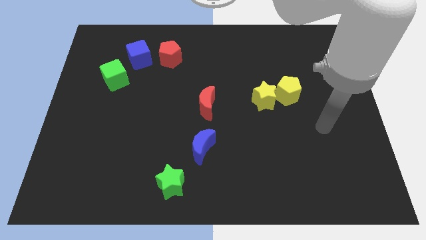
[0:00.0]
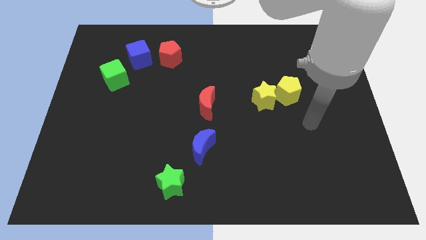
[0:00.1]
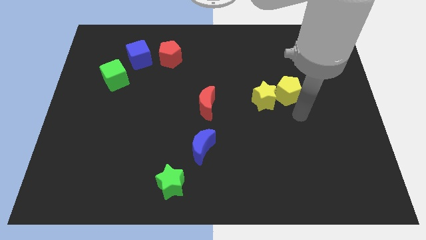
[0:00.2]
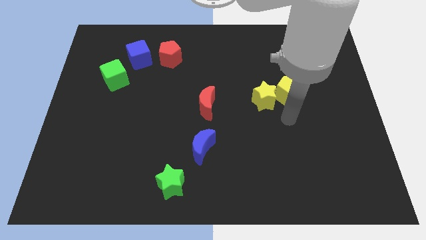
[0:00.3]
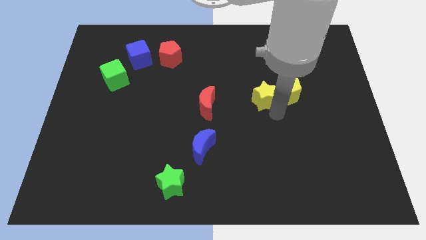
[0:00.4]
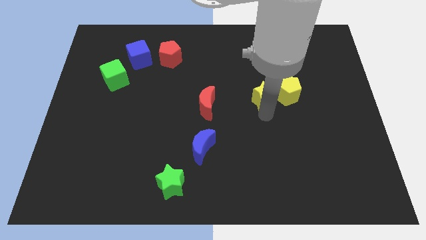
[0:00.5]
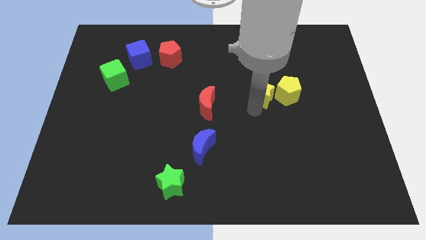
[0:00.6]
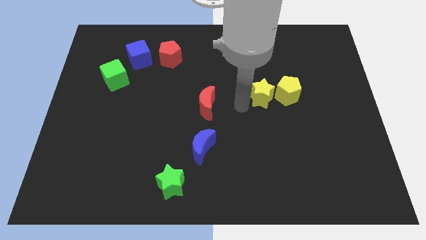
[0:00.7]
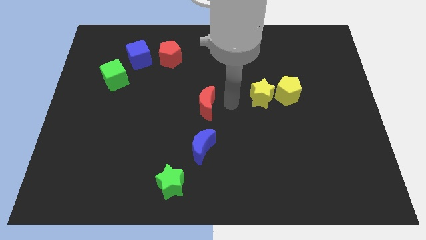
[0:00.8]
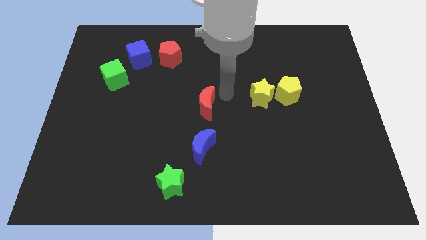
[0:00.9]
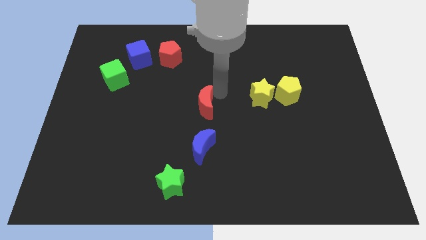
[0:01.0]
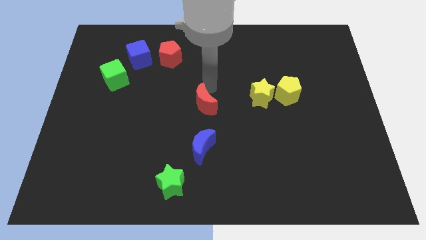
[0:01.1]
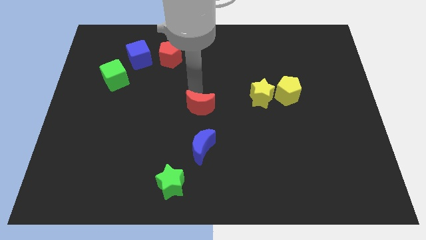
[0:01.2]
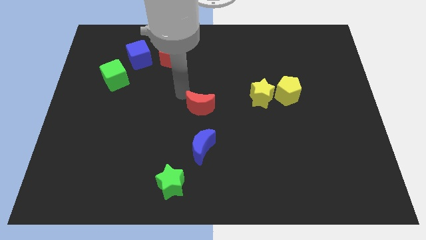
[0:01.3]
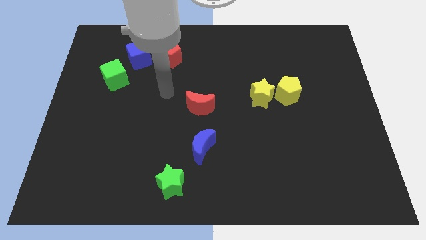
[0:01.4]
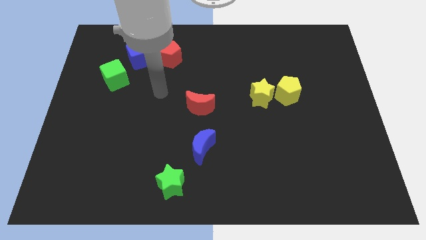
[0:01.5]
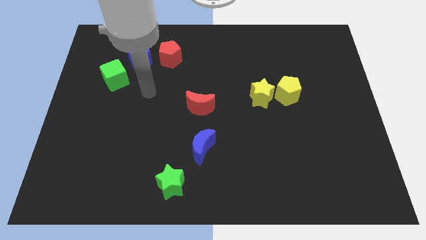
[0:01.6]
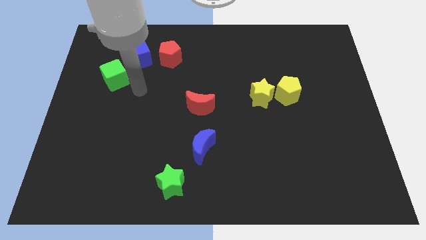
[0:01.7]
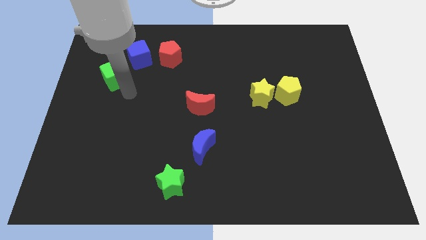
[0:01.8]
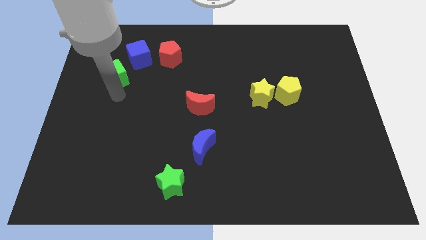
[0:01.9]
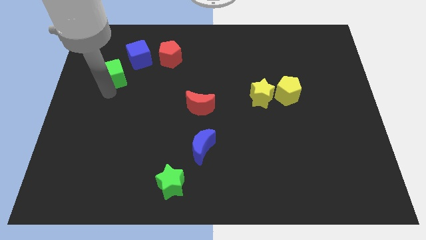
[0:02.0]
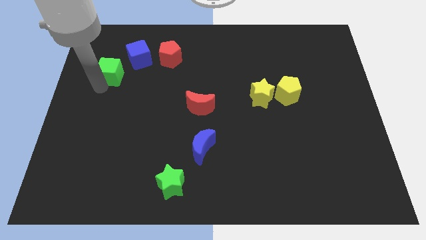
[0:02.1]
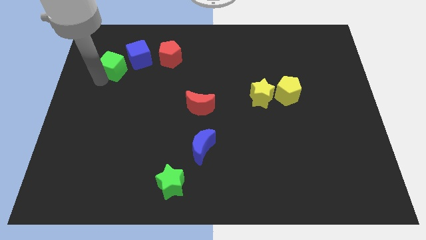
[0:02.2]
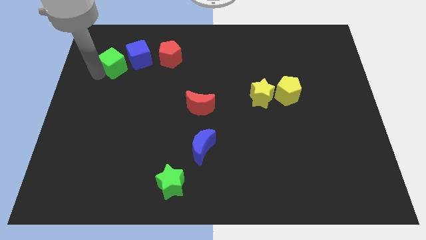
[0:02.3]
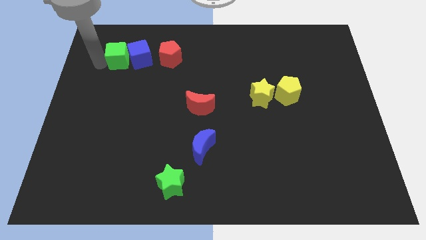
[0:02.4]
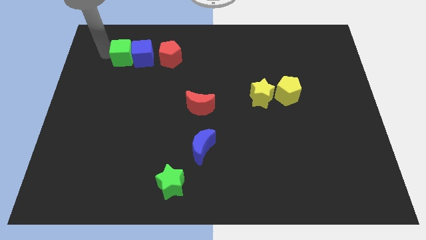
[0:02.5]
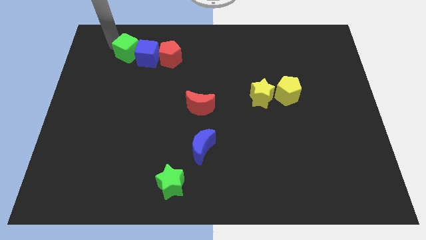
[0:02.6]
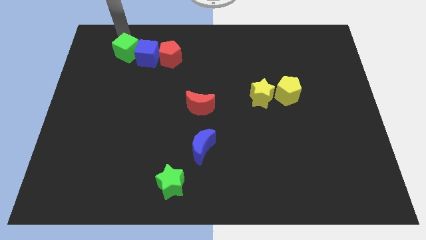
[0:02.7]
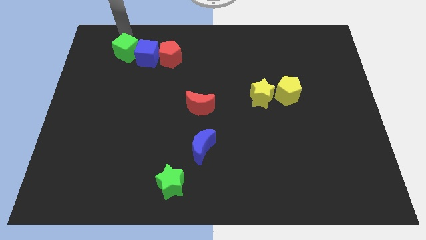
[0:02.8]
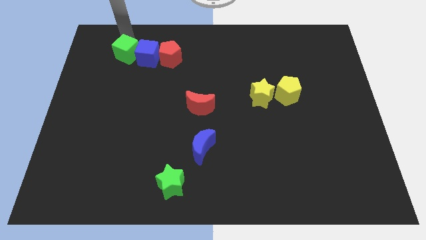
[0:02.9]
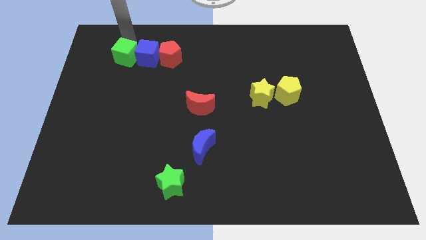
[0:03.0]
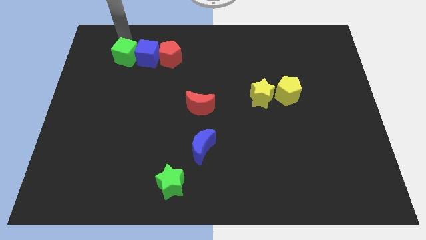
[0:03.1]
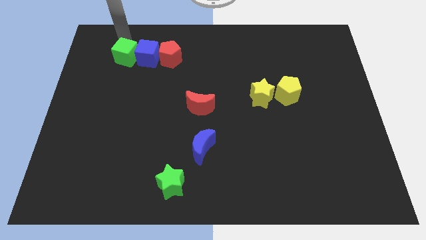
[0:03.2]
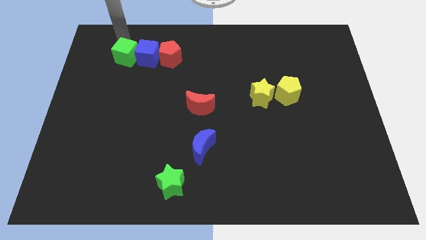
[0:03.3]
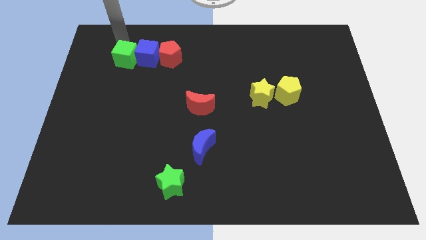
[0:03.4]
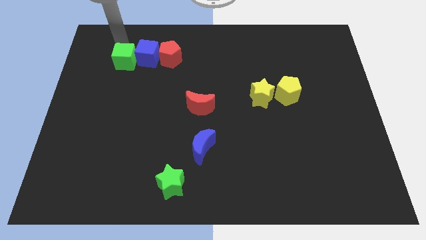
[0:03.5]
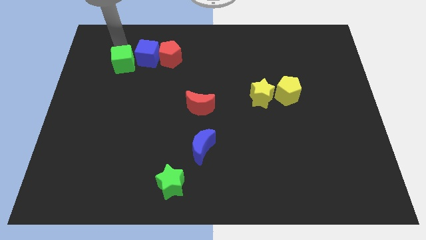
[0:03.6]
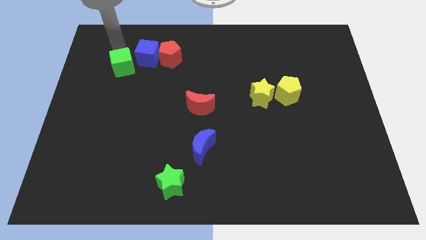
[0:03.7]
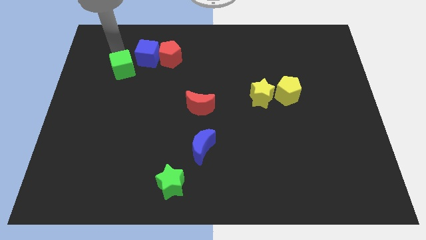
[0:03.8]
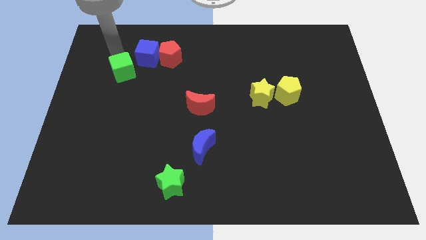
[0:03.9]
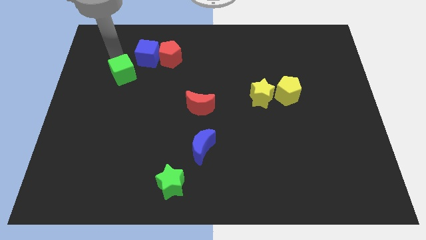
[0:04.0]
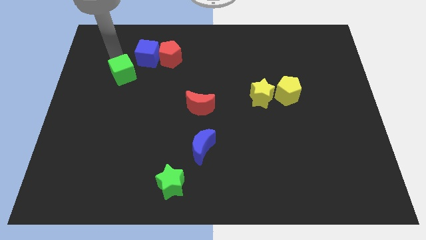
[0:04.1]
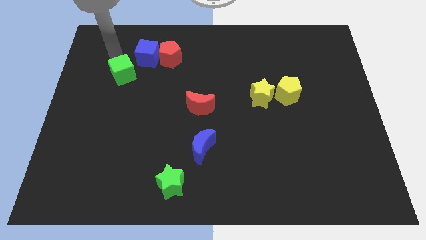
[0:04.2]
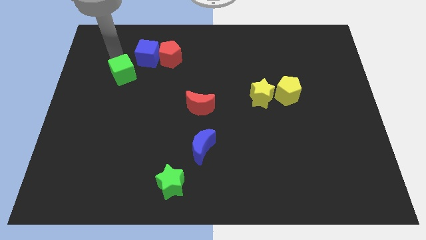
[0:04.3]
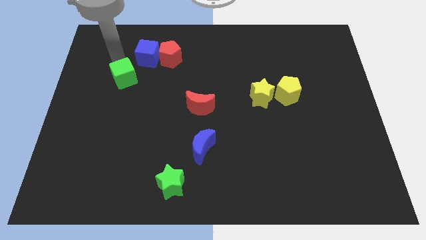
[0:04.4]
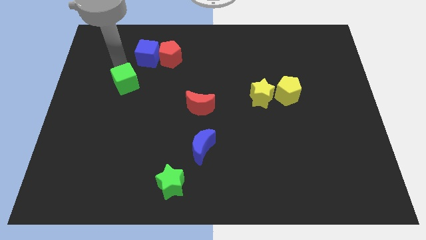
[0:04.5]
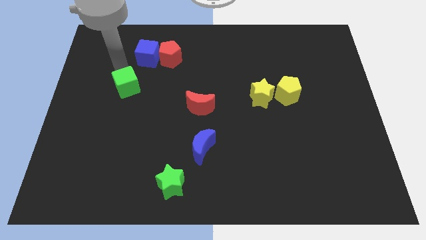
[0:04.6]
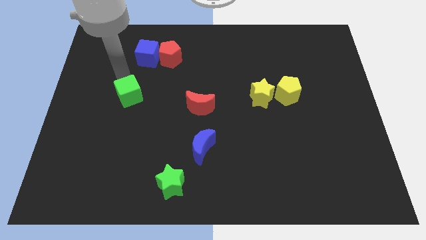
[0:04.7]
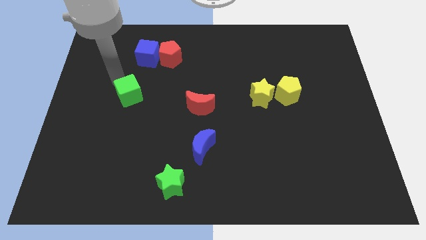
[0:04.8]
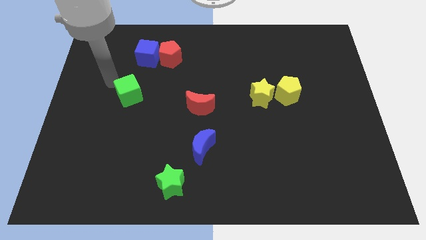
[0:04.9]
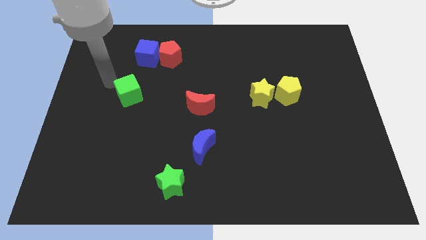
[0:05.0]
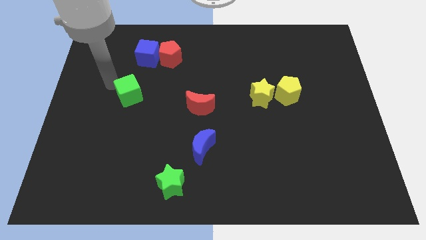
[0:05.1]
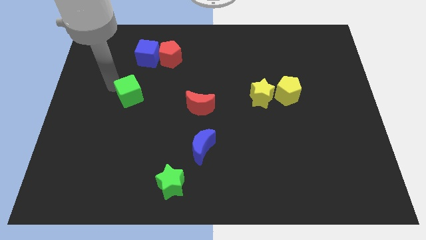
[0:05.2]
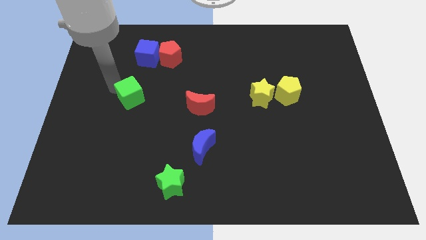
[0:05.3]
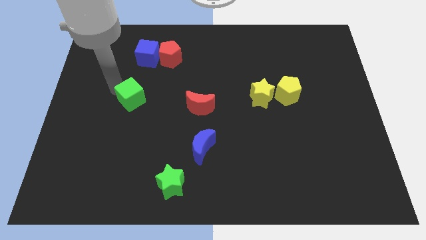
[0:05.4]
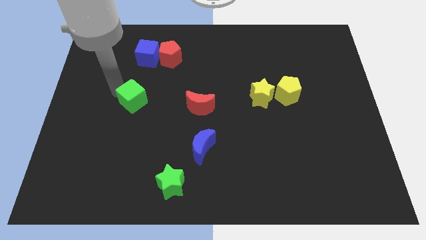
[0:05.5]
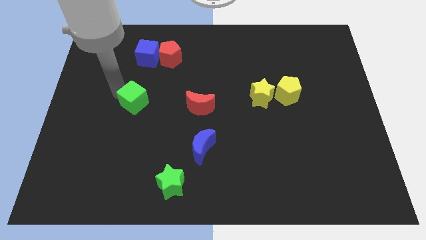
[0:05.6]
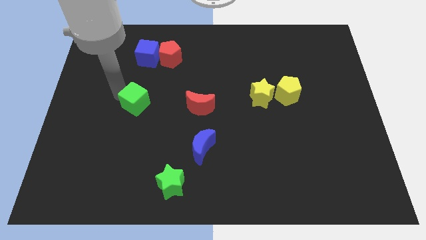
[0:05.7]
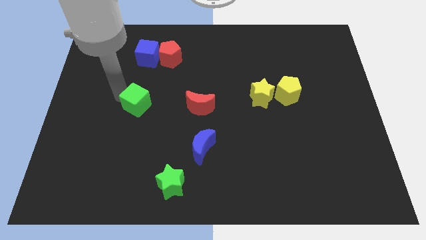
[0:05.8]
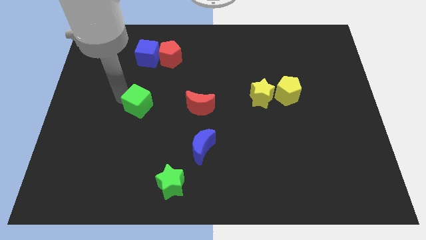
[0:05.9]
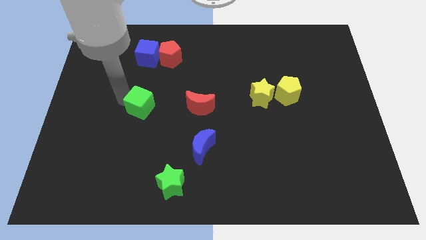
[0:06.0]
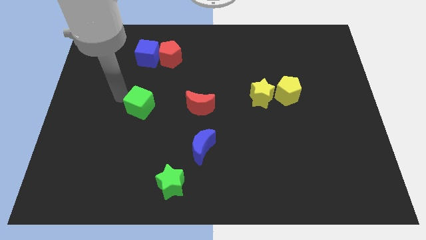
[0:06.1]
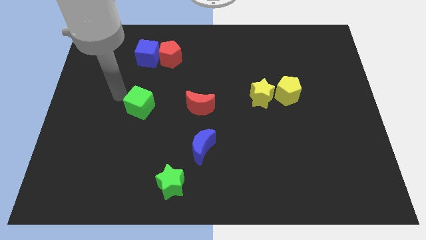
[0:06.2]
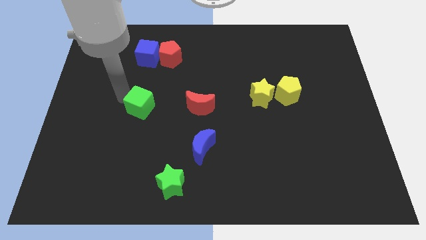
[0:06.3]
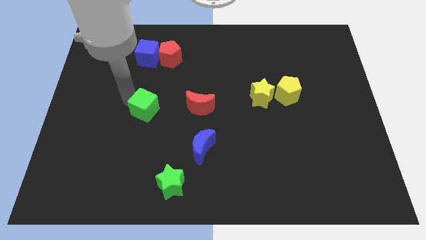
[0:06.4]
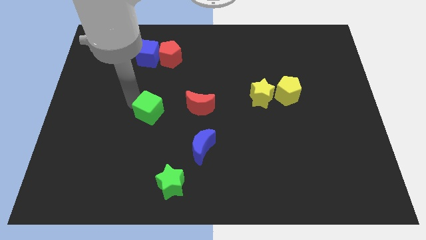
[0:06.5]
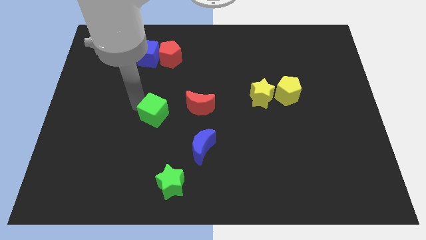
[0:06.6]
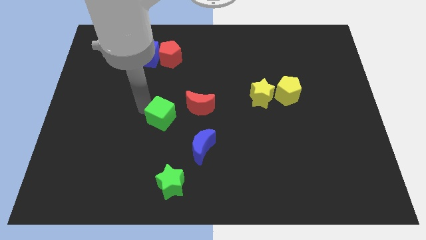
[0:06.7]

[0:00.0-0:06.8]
slide the green cube to the top left side of the blue moon

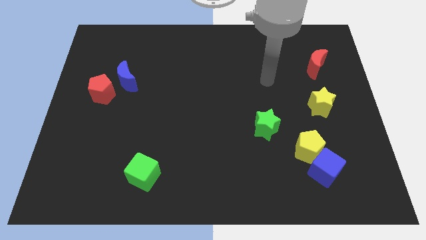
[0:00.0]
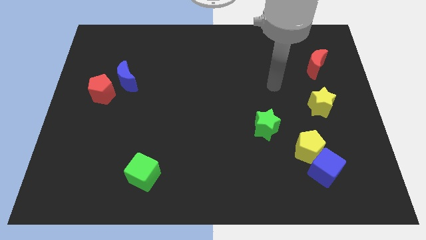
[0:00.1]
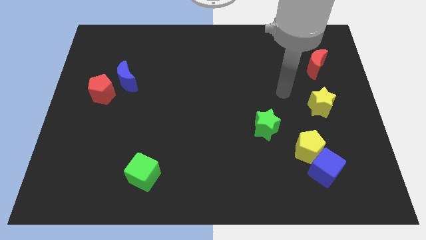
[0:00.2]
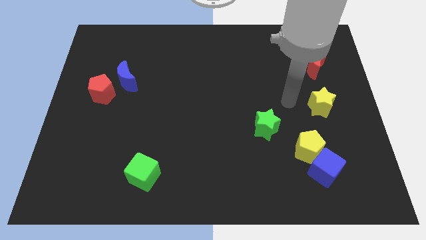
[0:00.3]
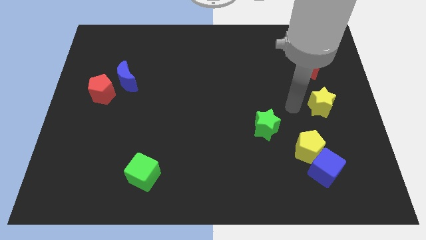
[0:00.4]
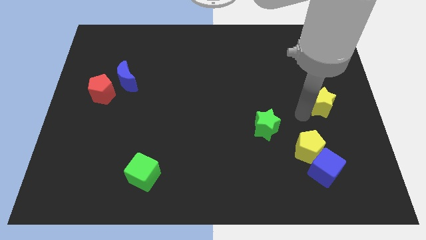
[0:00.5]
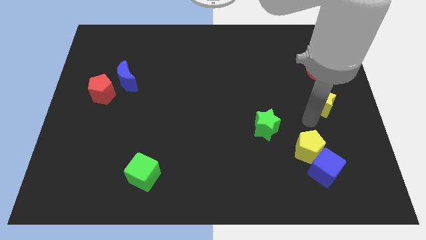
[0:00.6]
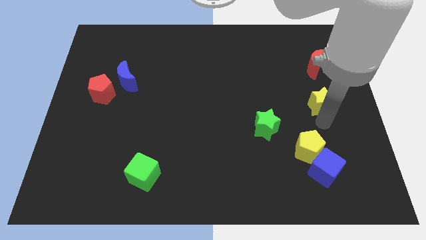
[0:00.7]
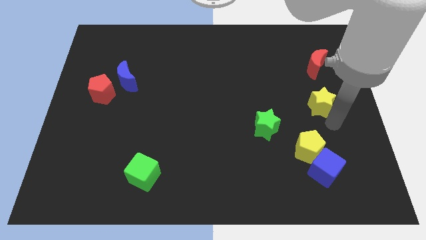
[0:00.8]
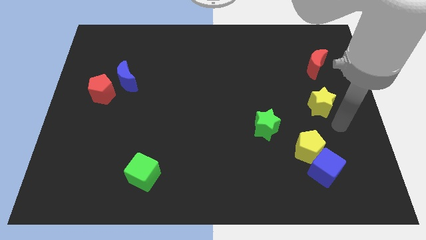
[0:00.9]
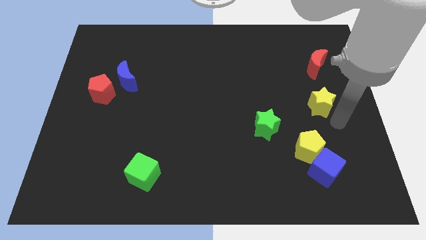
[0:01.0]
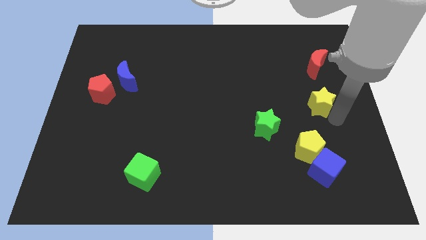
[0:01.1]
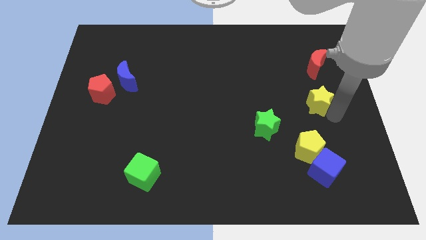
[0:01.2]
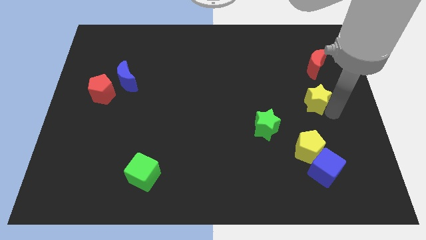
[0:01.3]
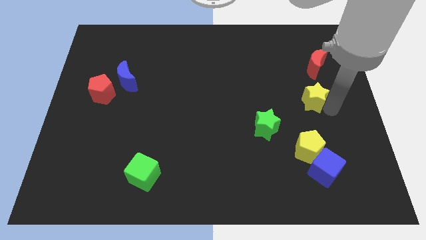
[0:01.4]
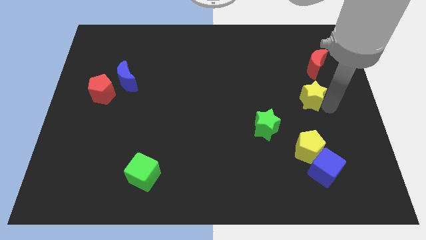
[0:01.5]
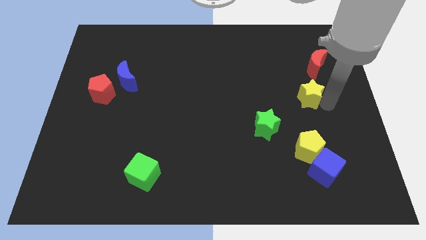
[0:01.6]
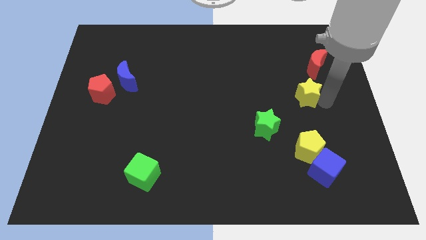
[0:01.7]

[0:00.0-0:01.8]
slide the yellow star to the bottom left of the red moon
